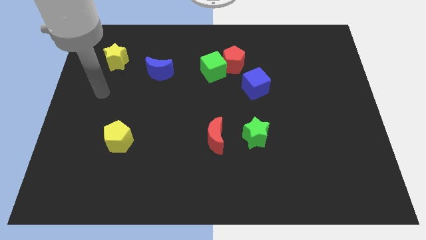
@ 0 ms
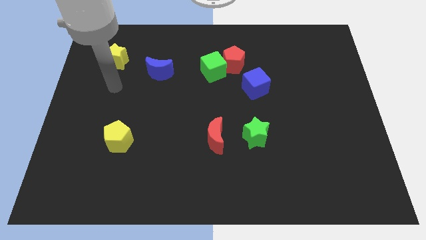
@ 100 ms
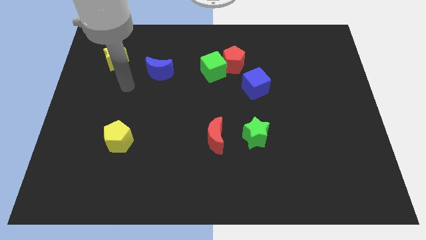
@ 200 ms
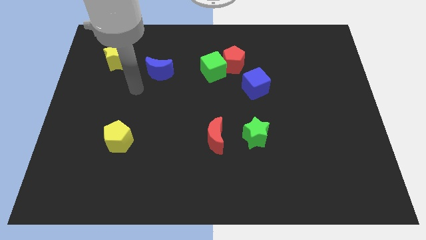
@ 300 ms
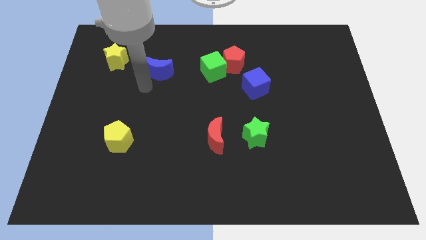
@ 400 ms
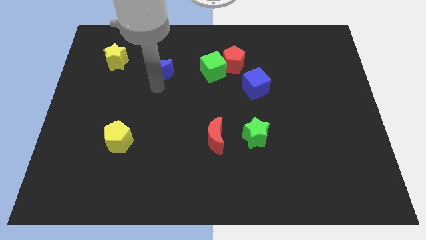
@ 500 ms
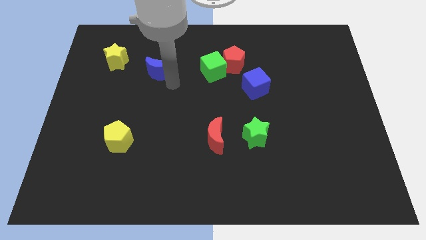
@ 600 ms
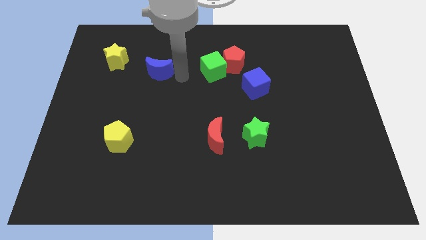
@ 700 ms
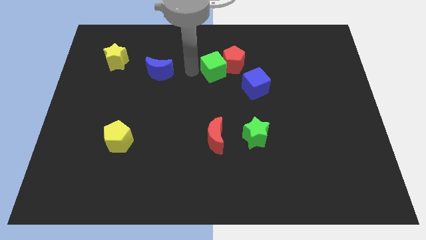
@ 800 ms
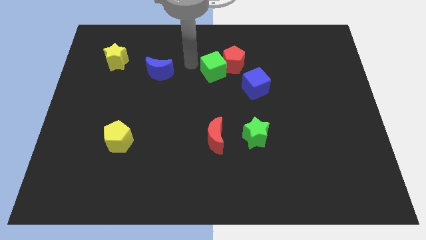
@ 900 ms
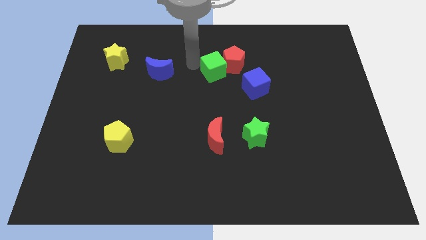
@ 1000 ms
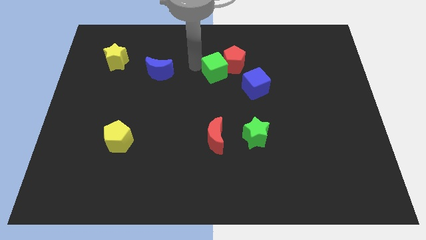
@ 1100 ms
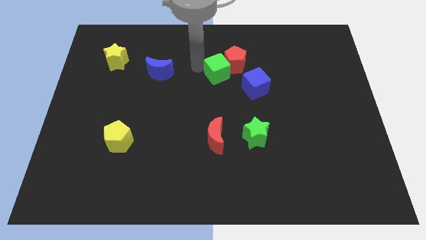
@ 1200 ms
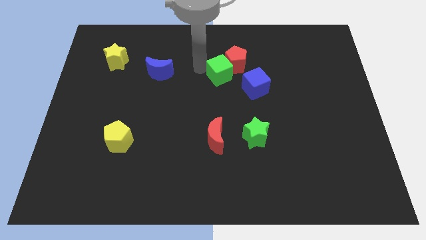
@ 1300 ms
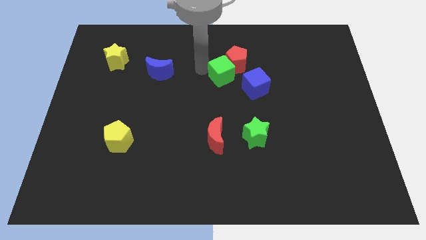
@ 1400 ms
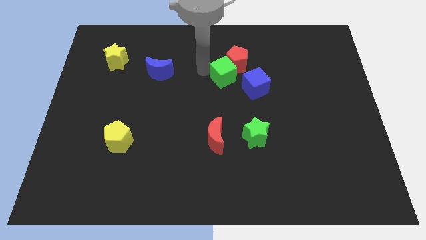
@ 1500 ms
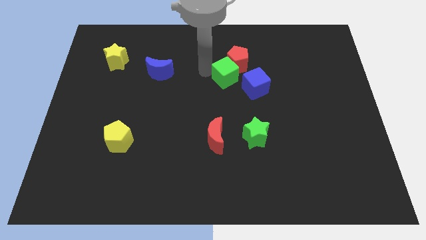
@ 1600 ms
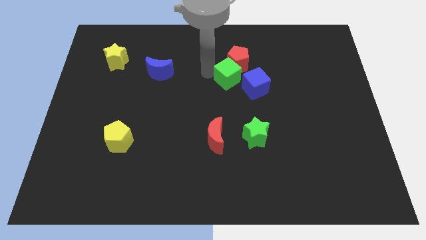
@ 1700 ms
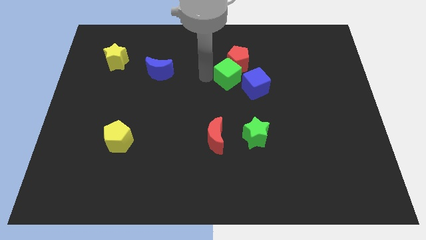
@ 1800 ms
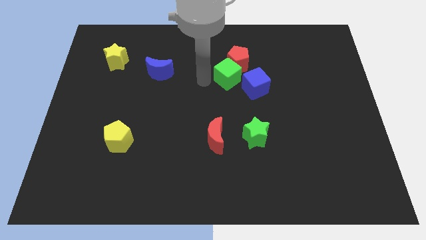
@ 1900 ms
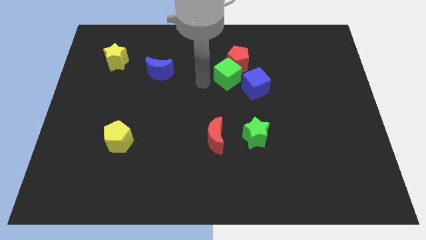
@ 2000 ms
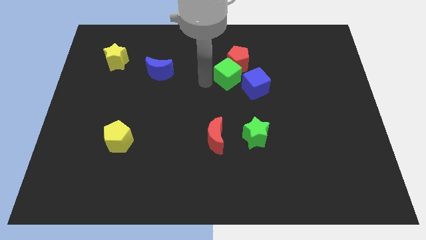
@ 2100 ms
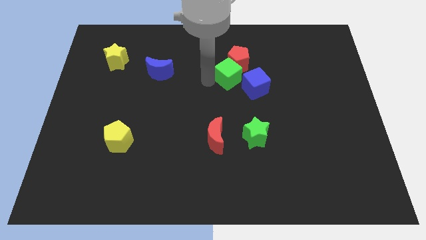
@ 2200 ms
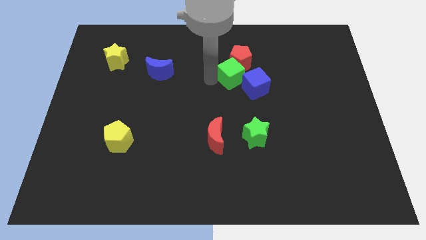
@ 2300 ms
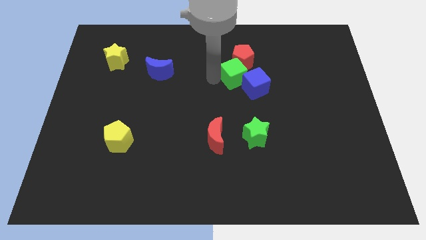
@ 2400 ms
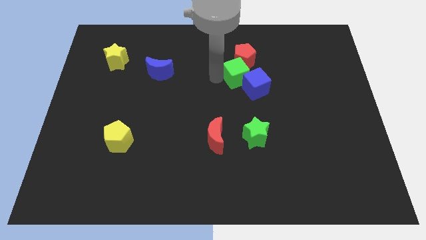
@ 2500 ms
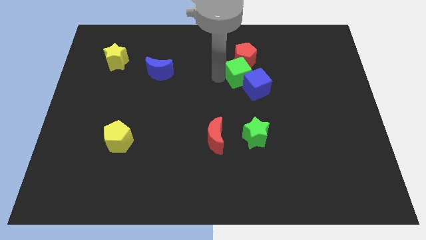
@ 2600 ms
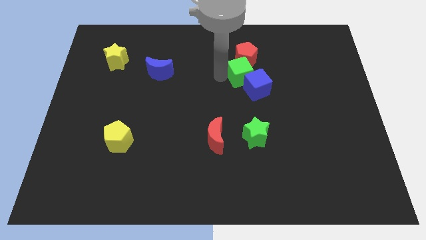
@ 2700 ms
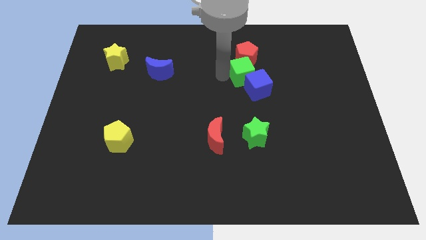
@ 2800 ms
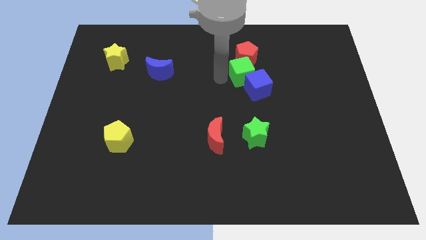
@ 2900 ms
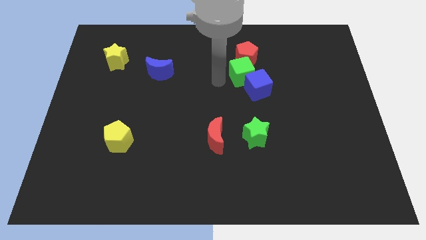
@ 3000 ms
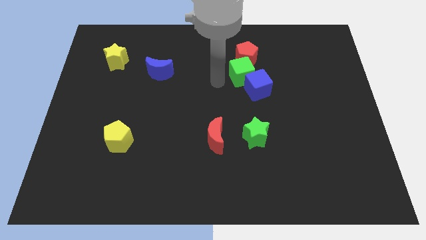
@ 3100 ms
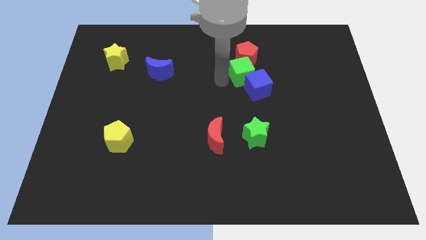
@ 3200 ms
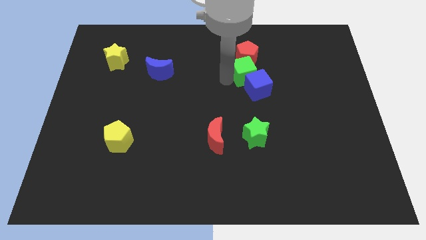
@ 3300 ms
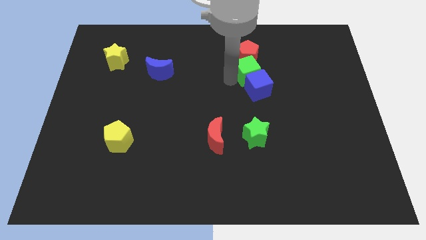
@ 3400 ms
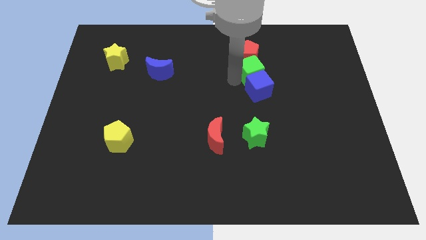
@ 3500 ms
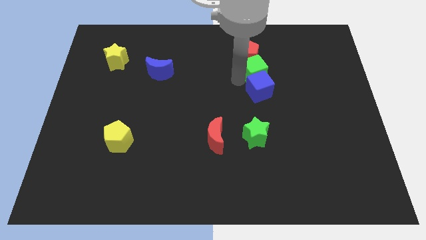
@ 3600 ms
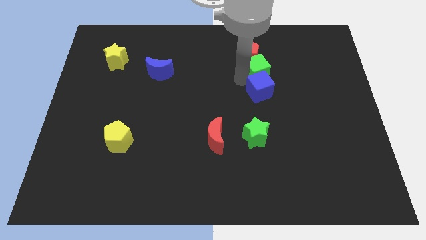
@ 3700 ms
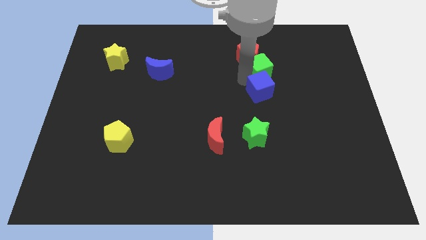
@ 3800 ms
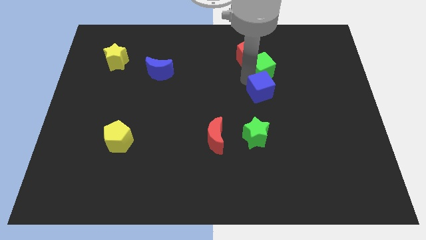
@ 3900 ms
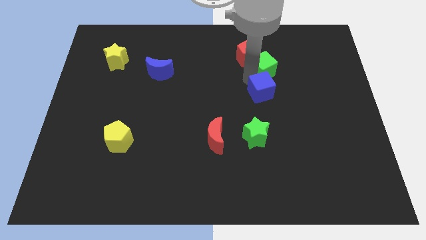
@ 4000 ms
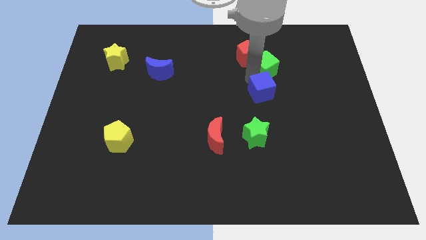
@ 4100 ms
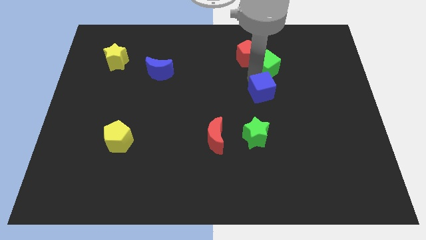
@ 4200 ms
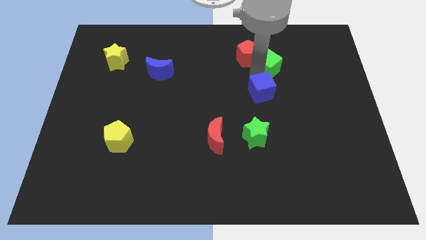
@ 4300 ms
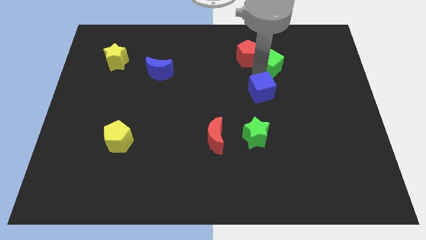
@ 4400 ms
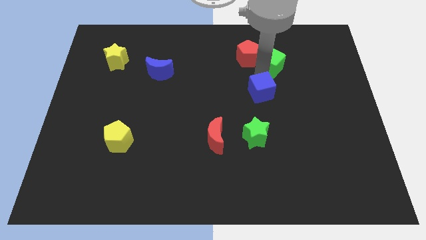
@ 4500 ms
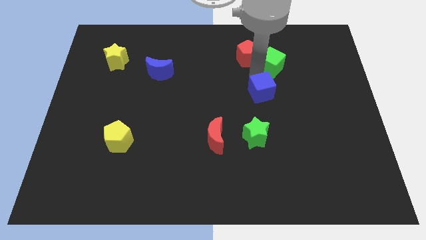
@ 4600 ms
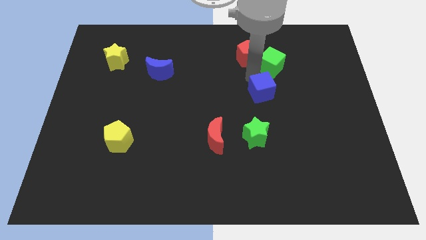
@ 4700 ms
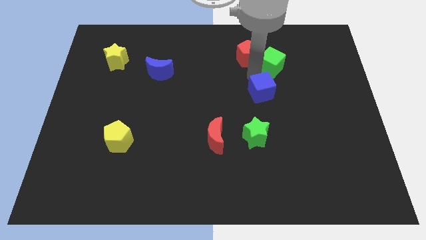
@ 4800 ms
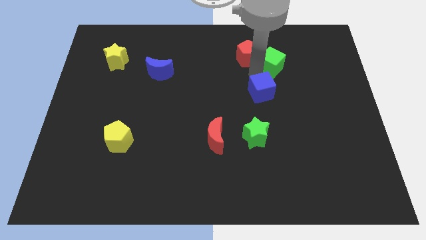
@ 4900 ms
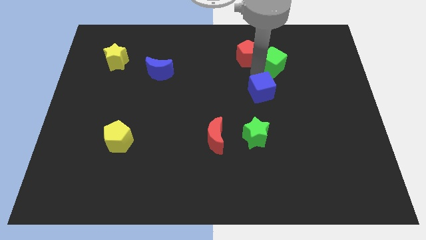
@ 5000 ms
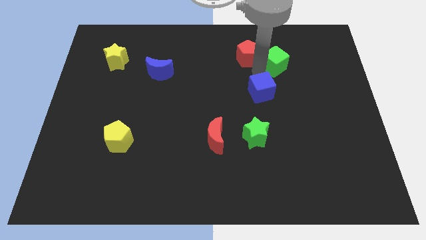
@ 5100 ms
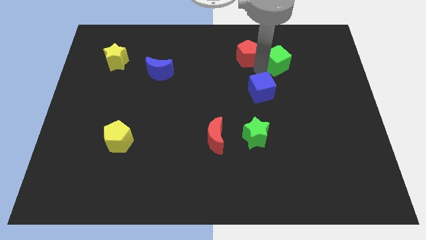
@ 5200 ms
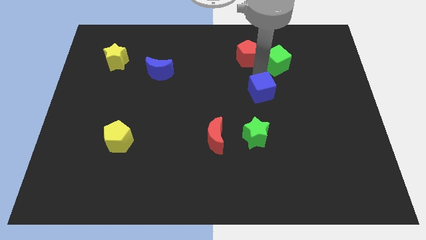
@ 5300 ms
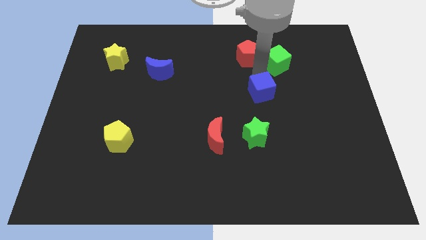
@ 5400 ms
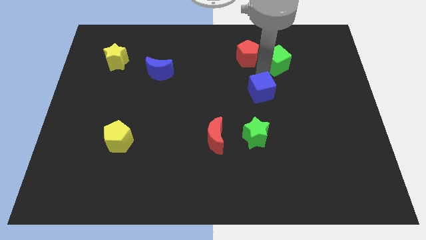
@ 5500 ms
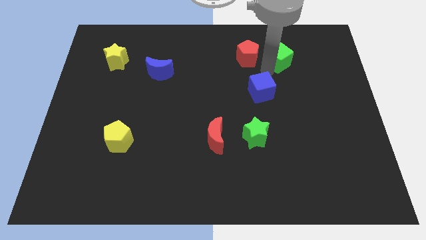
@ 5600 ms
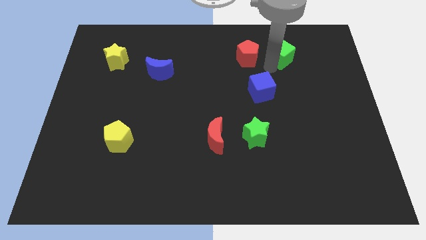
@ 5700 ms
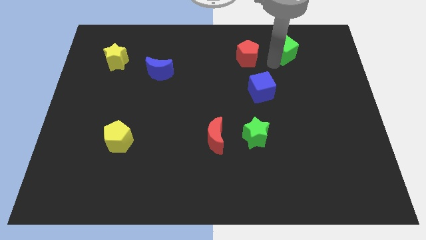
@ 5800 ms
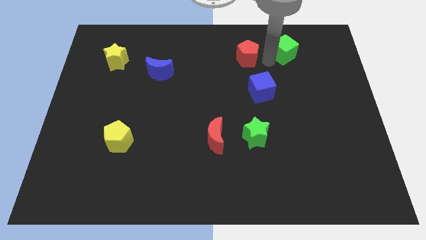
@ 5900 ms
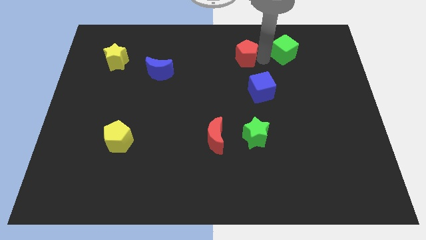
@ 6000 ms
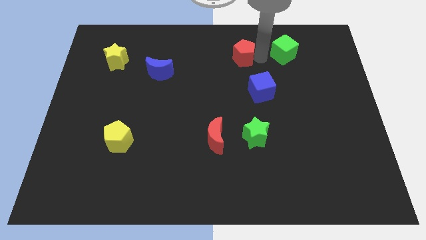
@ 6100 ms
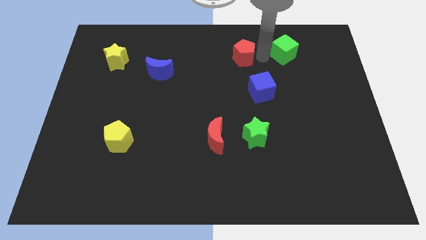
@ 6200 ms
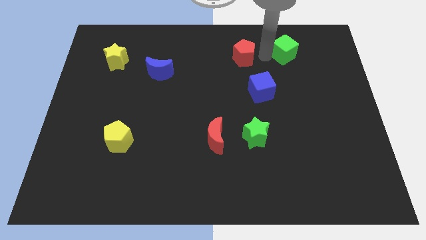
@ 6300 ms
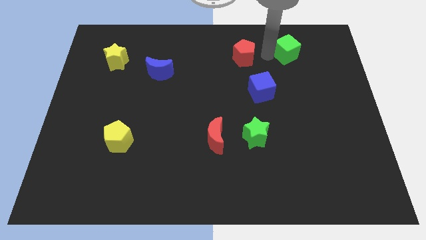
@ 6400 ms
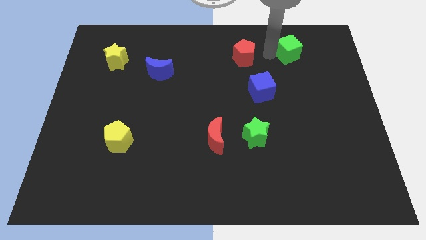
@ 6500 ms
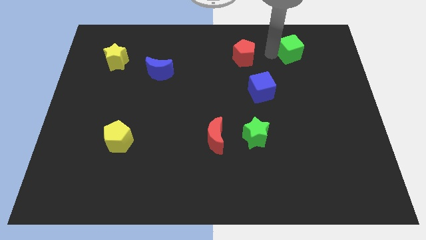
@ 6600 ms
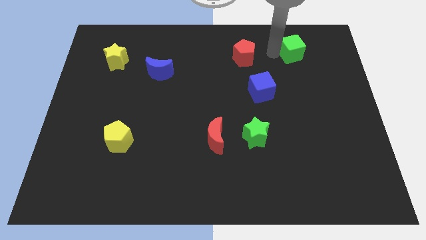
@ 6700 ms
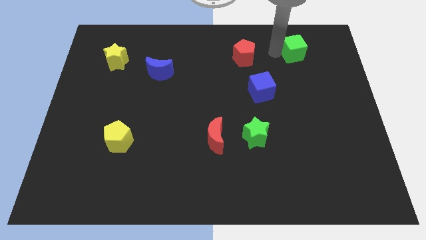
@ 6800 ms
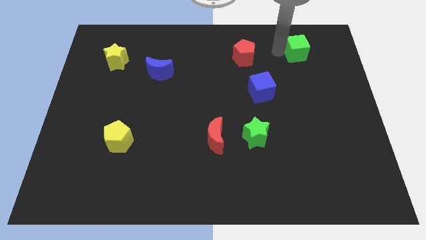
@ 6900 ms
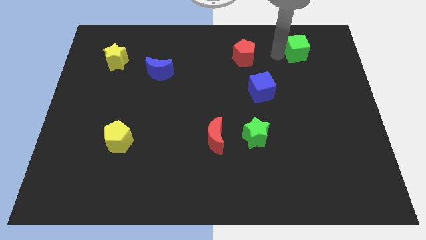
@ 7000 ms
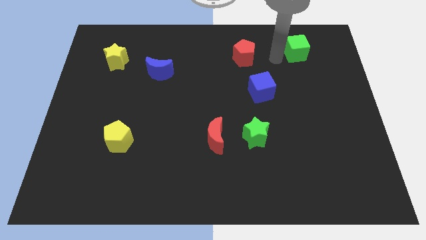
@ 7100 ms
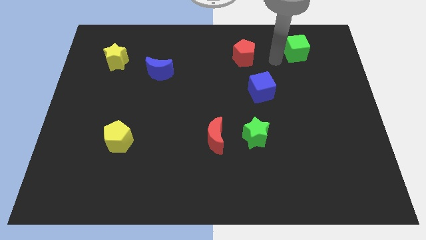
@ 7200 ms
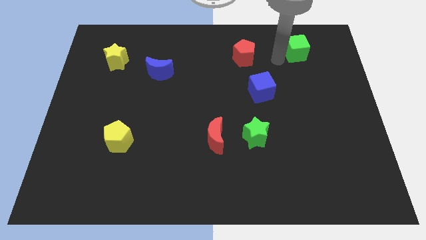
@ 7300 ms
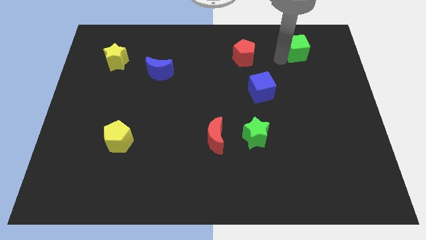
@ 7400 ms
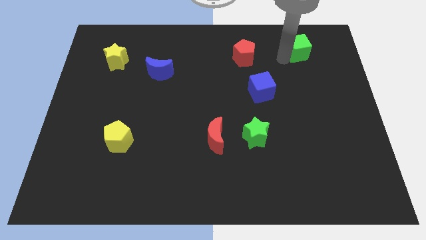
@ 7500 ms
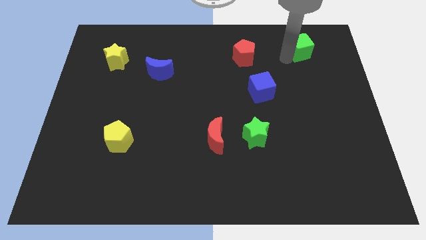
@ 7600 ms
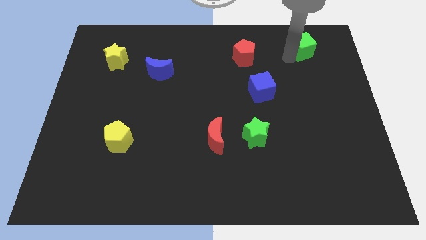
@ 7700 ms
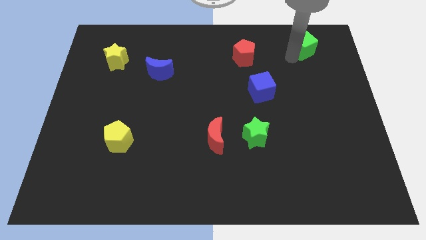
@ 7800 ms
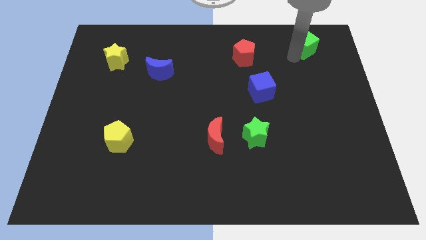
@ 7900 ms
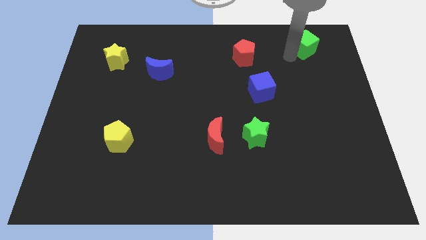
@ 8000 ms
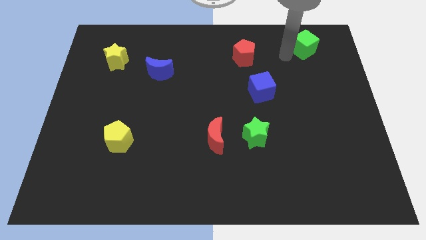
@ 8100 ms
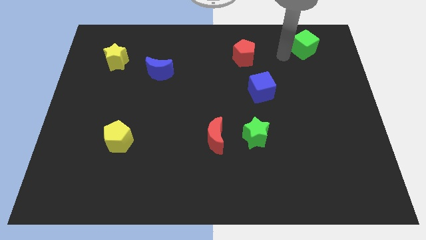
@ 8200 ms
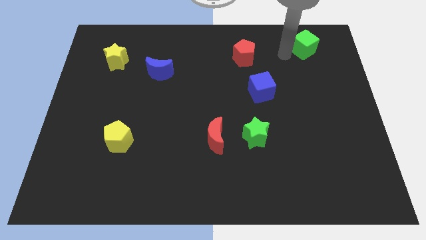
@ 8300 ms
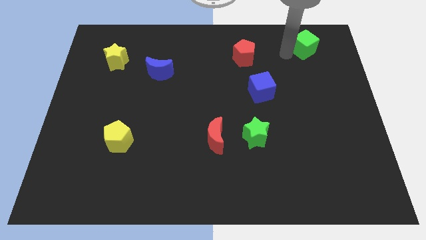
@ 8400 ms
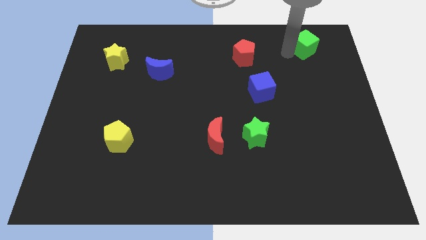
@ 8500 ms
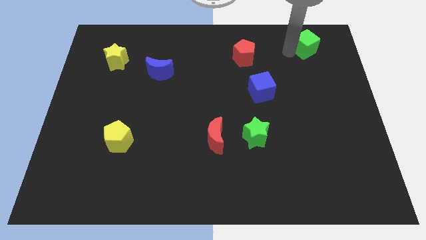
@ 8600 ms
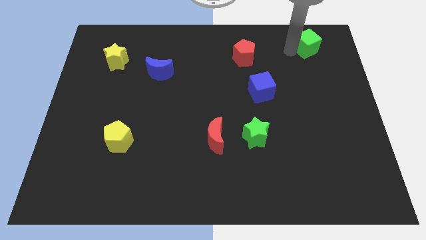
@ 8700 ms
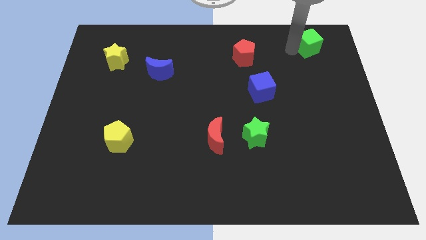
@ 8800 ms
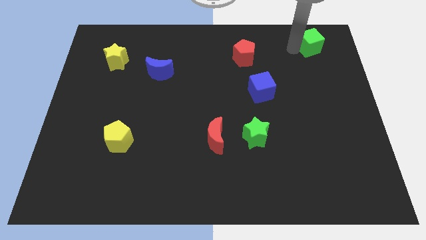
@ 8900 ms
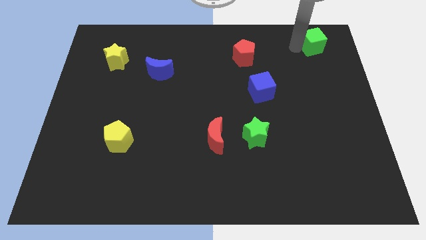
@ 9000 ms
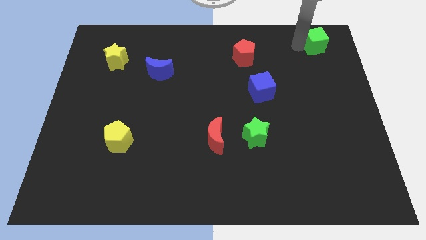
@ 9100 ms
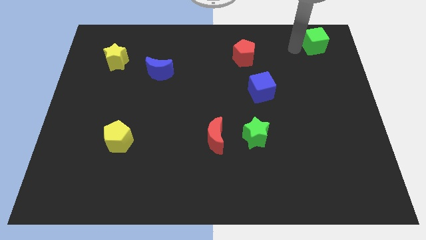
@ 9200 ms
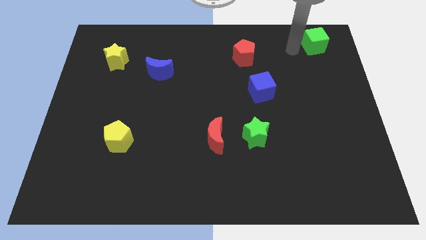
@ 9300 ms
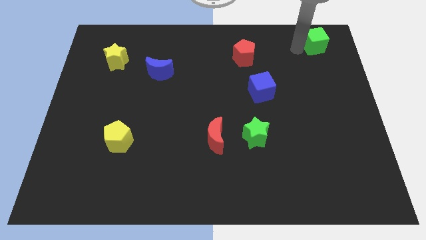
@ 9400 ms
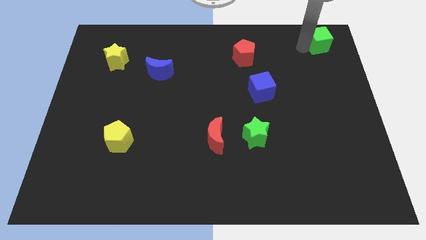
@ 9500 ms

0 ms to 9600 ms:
put the green cube to the top right
